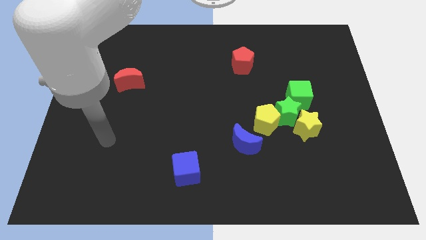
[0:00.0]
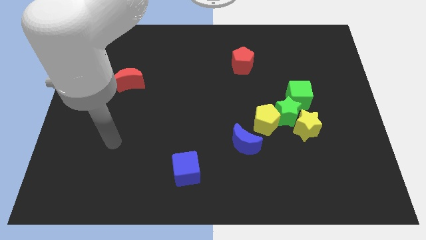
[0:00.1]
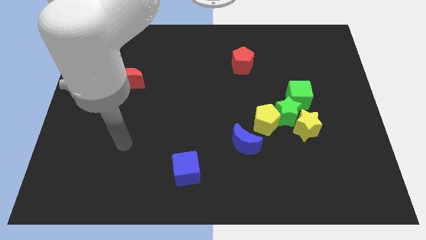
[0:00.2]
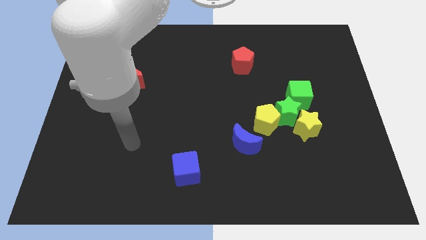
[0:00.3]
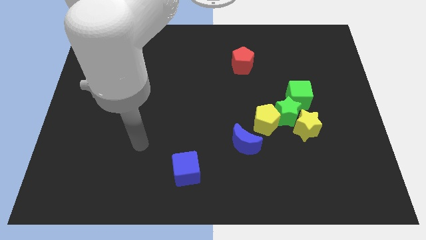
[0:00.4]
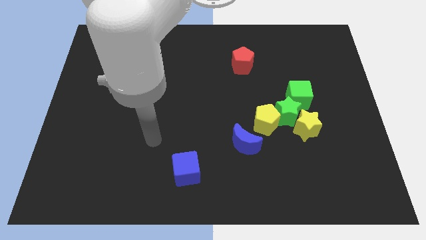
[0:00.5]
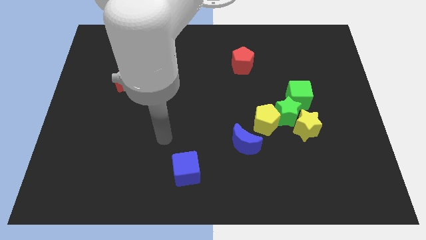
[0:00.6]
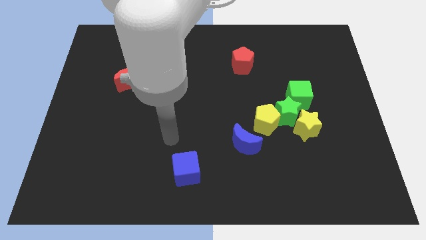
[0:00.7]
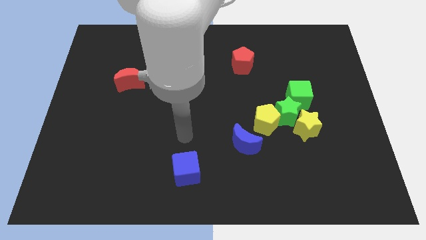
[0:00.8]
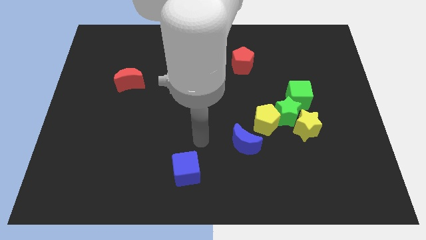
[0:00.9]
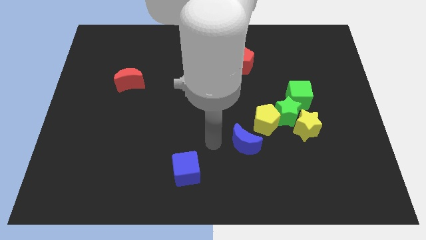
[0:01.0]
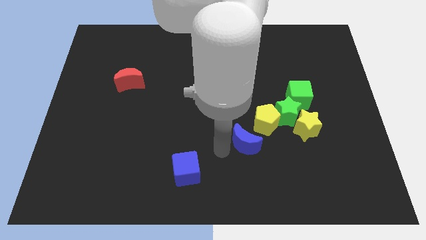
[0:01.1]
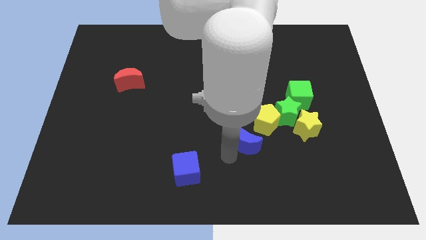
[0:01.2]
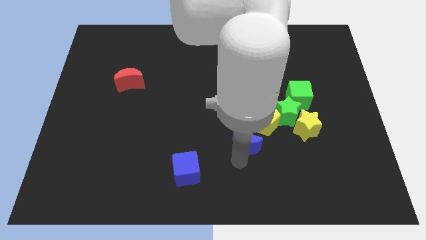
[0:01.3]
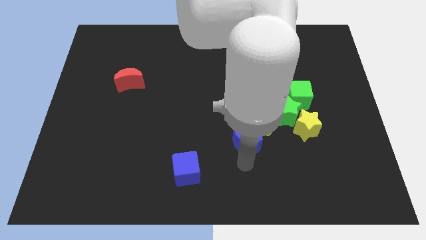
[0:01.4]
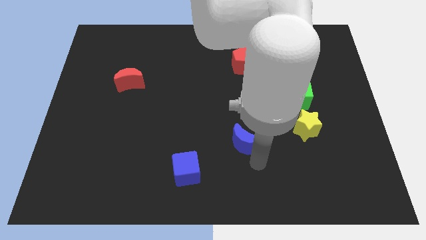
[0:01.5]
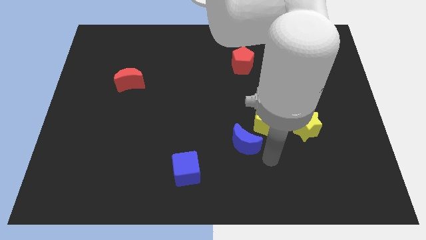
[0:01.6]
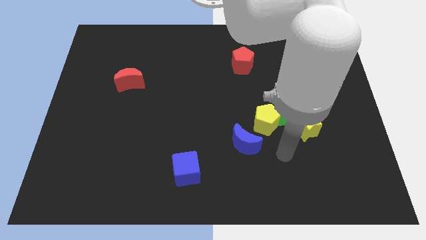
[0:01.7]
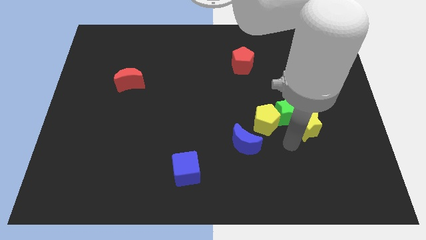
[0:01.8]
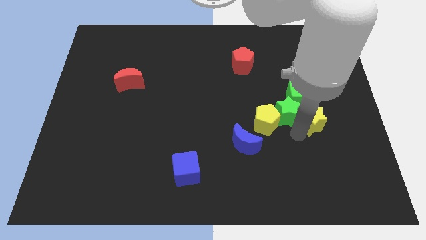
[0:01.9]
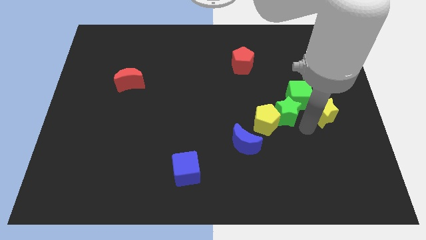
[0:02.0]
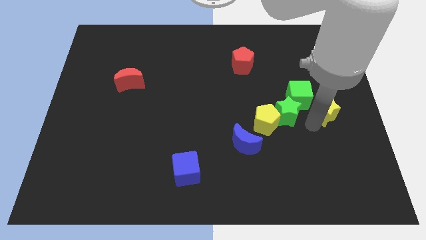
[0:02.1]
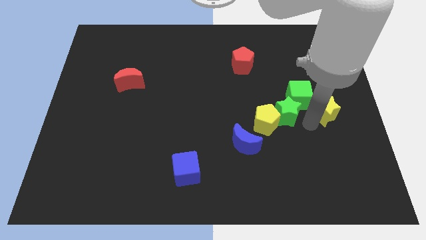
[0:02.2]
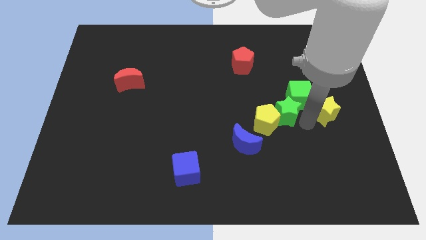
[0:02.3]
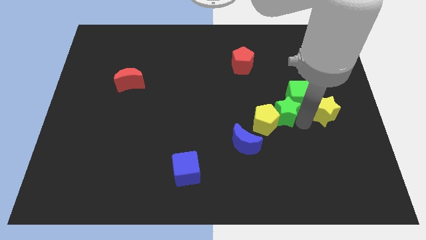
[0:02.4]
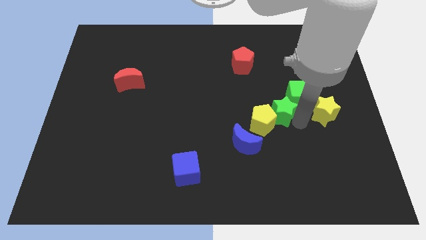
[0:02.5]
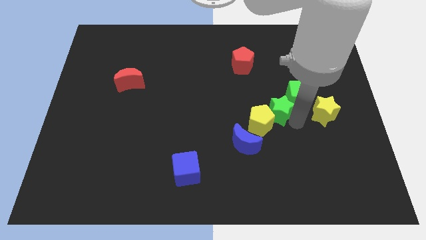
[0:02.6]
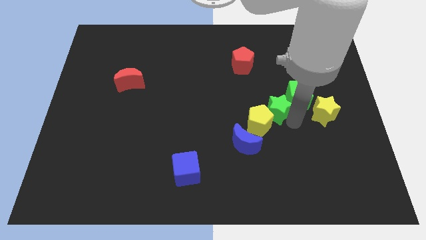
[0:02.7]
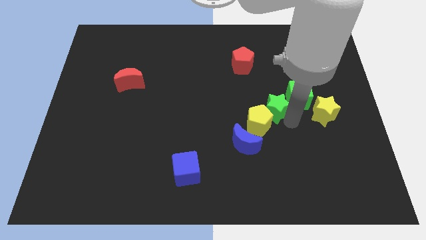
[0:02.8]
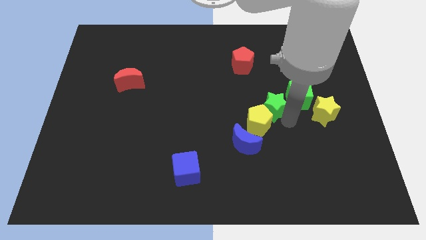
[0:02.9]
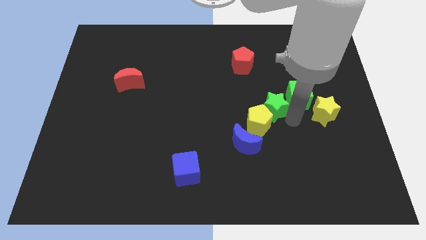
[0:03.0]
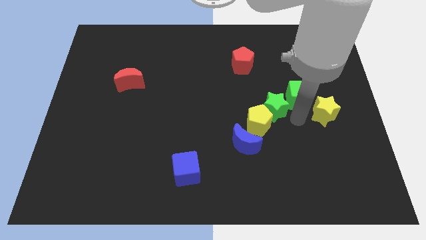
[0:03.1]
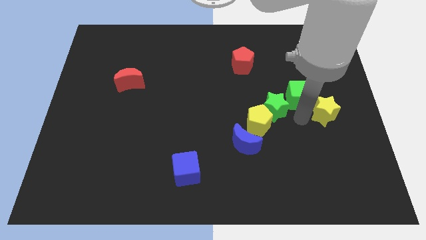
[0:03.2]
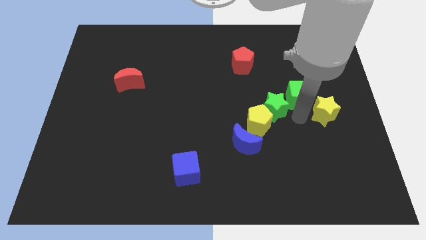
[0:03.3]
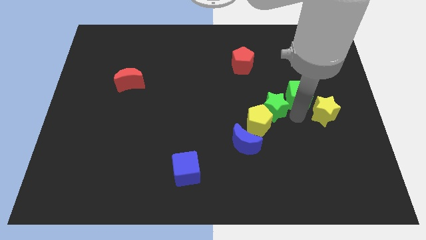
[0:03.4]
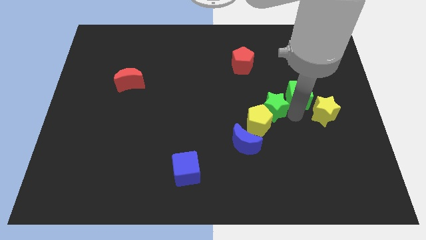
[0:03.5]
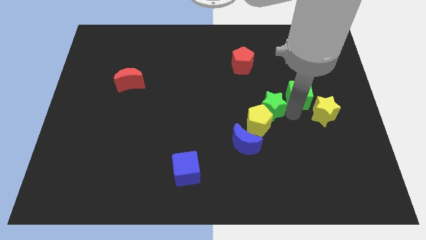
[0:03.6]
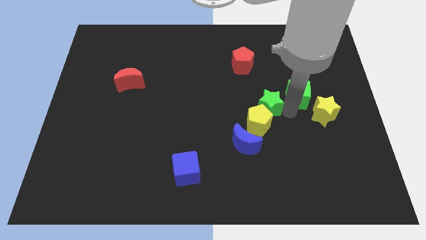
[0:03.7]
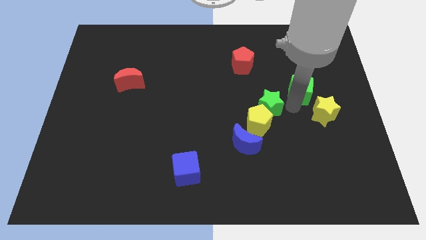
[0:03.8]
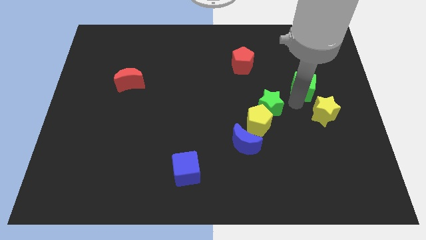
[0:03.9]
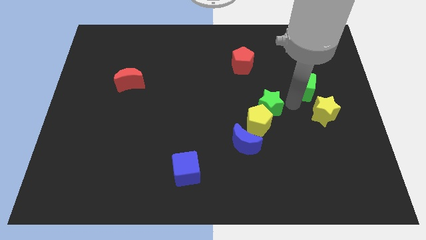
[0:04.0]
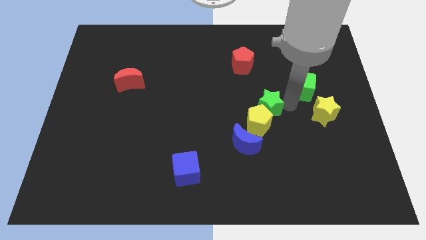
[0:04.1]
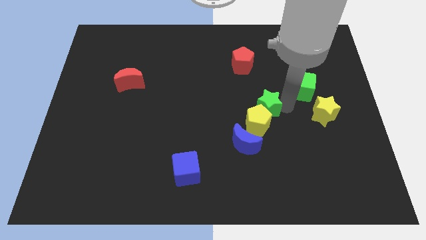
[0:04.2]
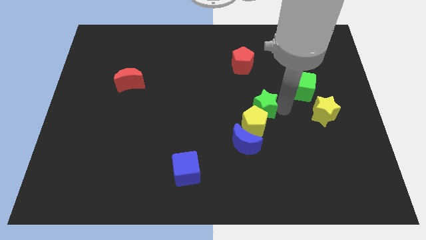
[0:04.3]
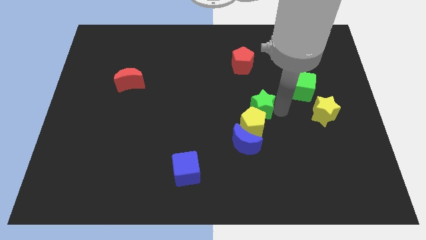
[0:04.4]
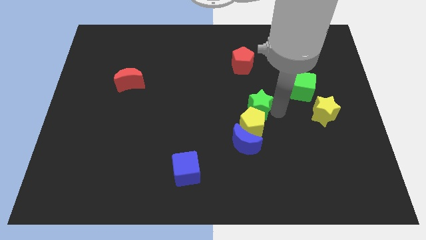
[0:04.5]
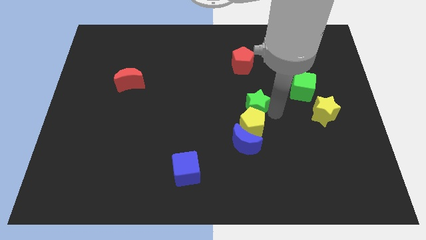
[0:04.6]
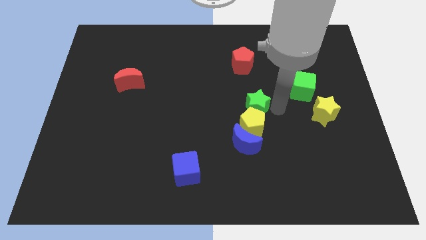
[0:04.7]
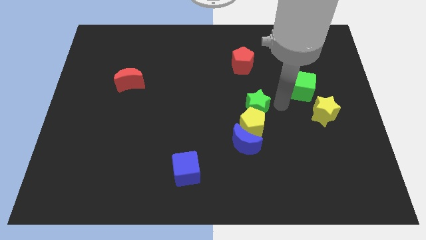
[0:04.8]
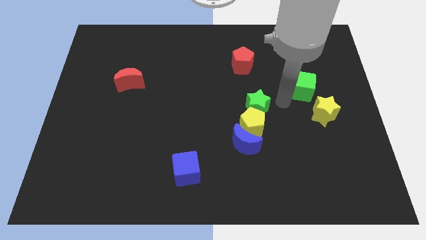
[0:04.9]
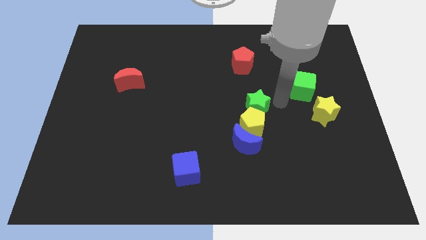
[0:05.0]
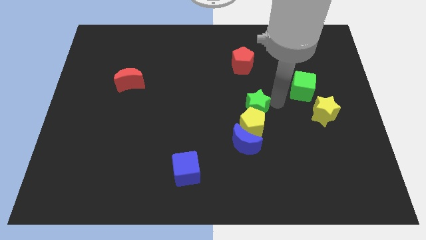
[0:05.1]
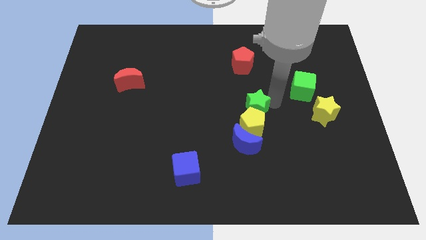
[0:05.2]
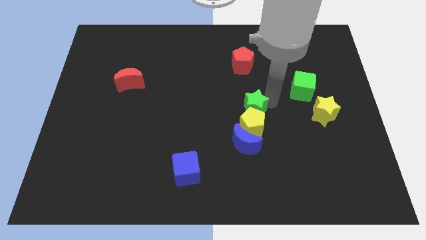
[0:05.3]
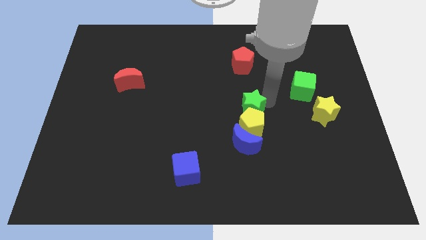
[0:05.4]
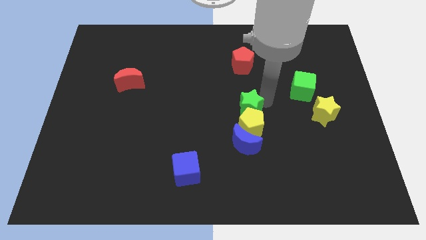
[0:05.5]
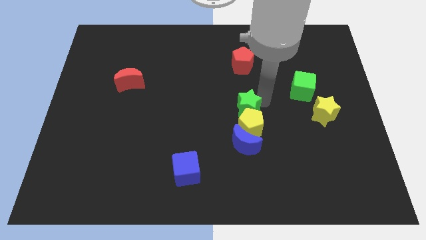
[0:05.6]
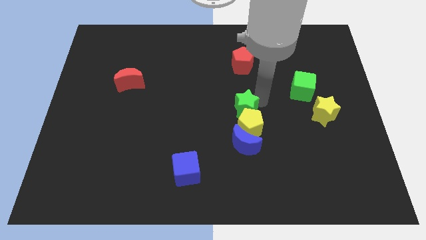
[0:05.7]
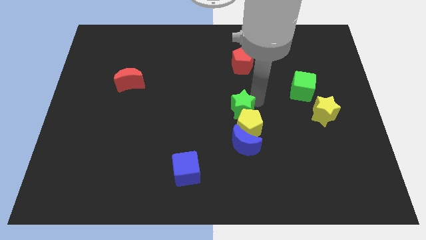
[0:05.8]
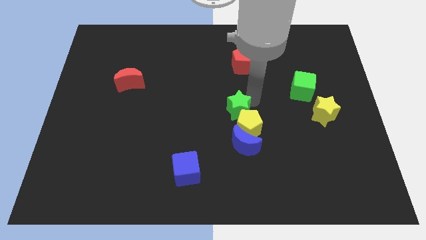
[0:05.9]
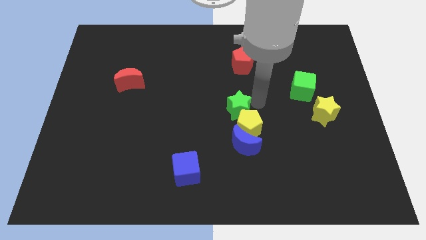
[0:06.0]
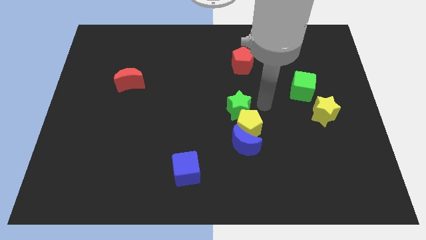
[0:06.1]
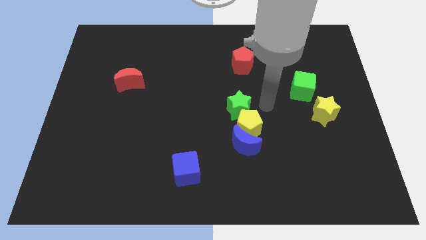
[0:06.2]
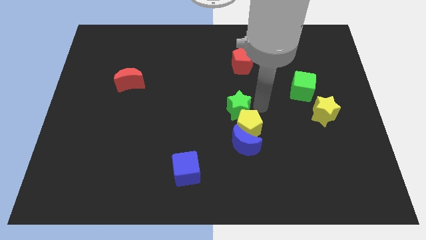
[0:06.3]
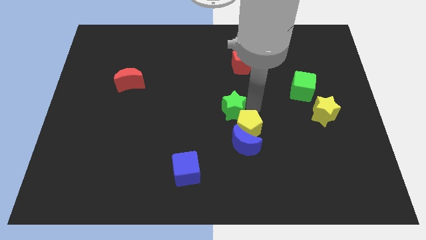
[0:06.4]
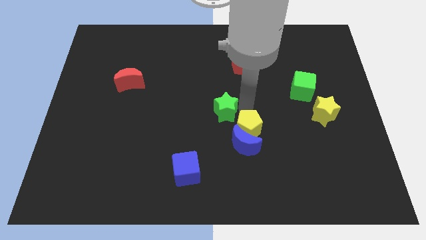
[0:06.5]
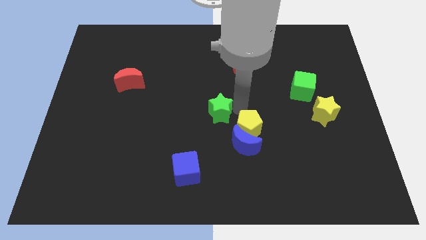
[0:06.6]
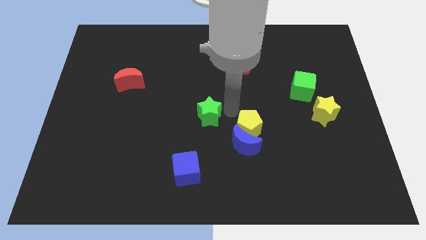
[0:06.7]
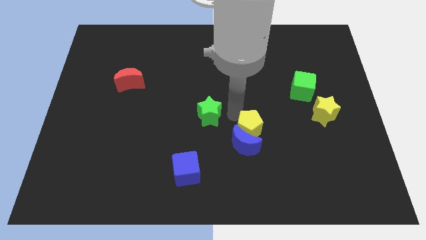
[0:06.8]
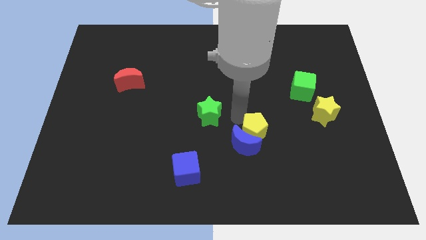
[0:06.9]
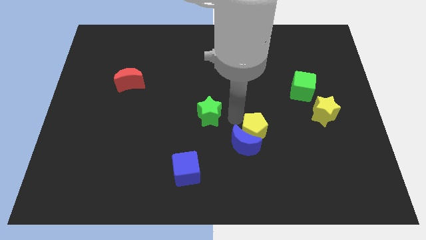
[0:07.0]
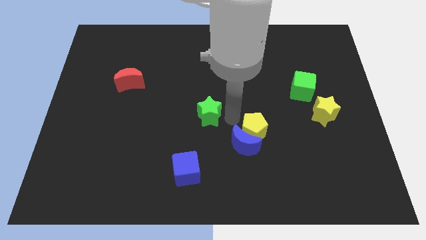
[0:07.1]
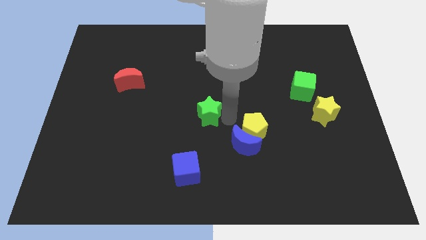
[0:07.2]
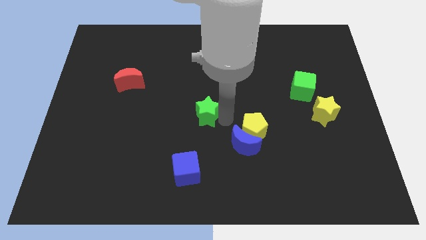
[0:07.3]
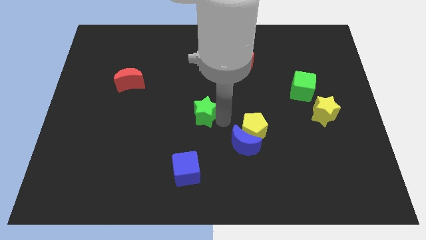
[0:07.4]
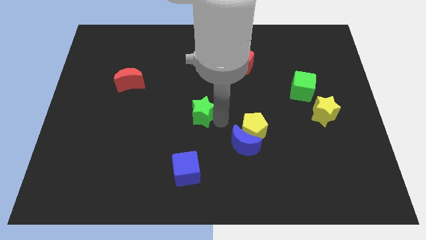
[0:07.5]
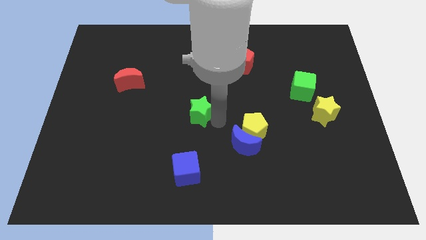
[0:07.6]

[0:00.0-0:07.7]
slide the green star to the left

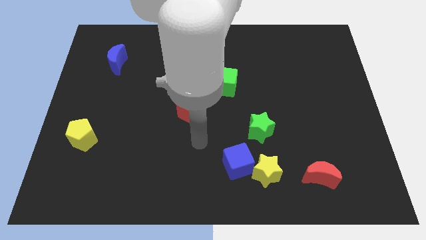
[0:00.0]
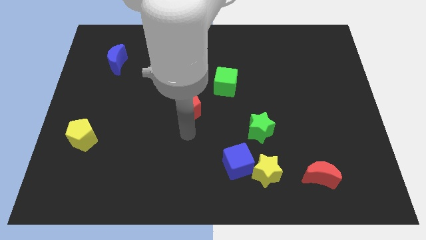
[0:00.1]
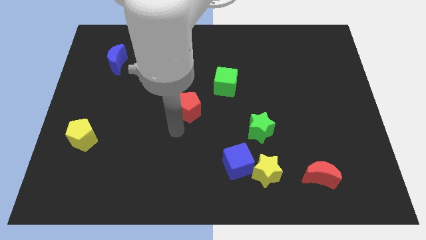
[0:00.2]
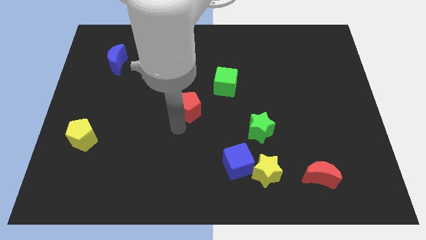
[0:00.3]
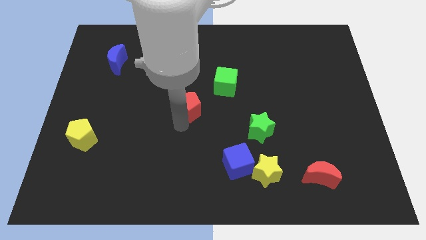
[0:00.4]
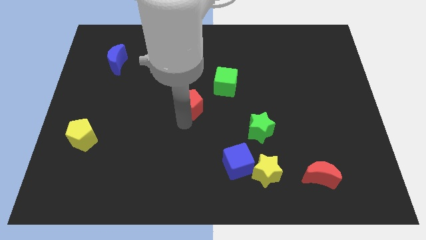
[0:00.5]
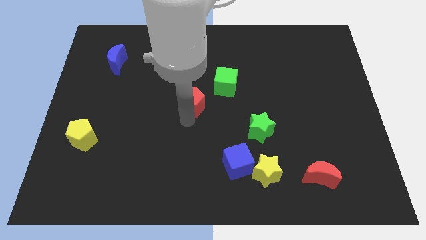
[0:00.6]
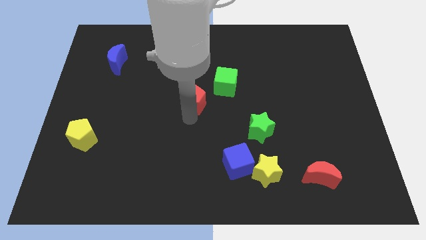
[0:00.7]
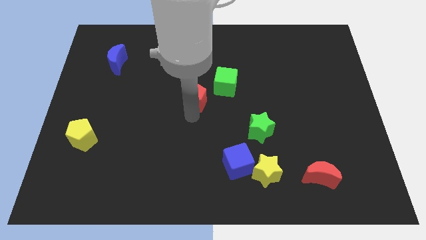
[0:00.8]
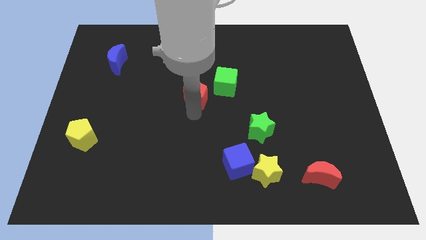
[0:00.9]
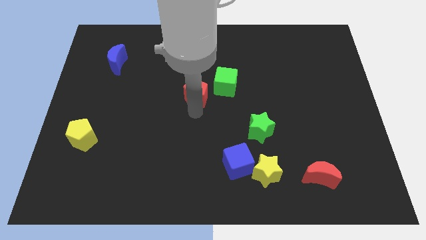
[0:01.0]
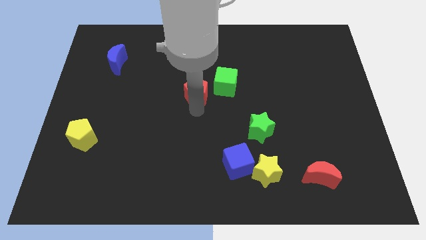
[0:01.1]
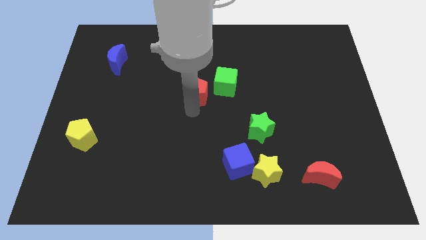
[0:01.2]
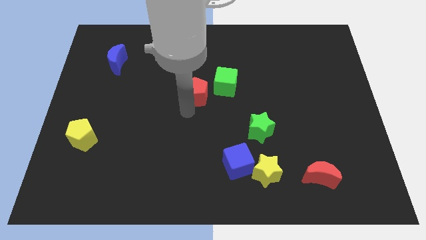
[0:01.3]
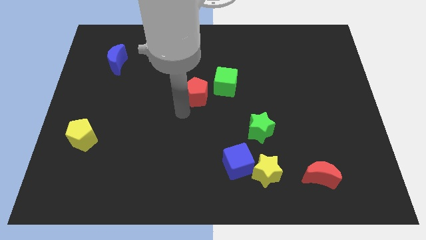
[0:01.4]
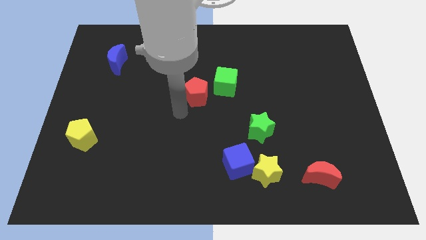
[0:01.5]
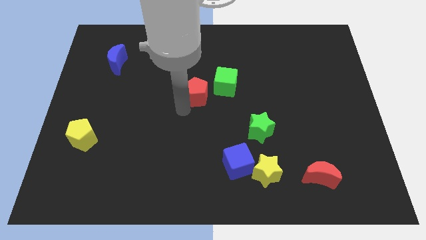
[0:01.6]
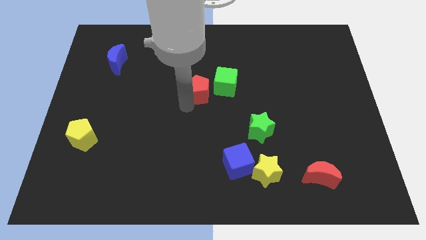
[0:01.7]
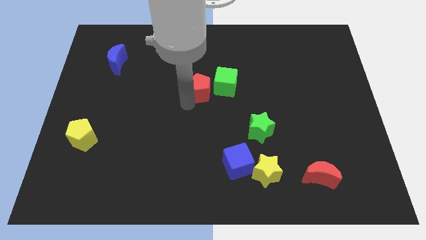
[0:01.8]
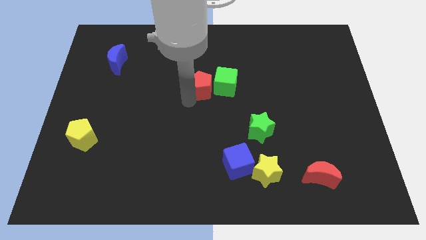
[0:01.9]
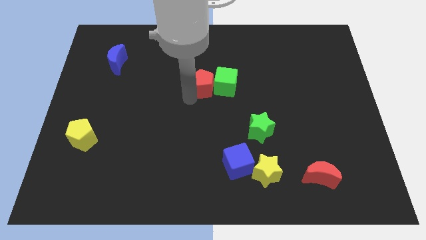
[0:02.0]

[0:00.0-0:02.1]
slide the red pentagon a little upwards and to the right diagonally
